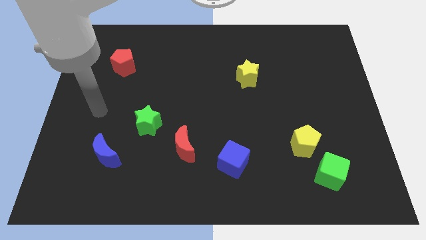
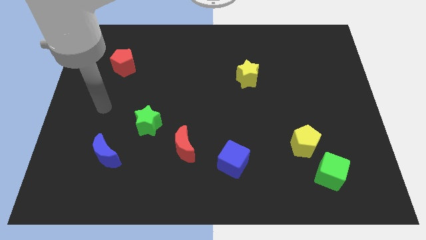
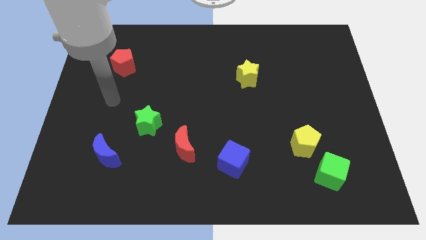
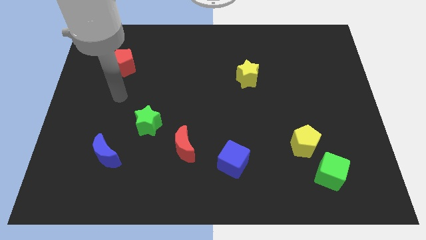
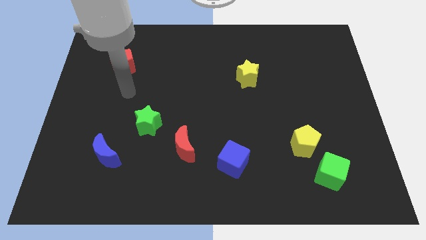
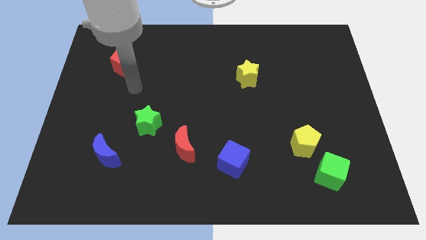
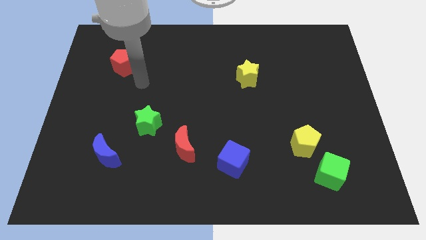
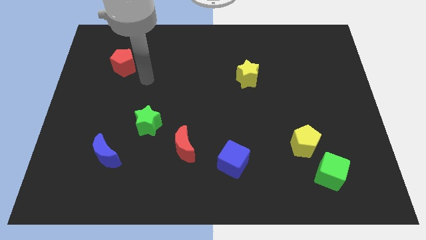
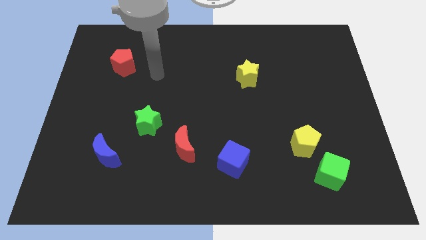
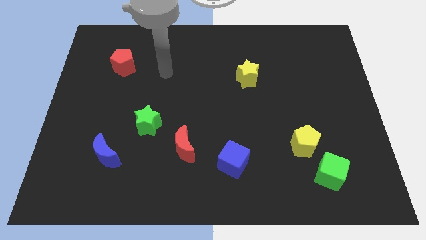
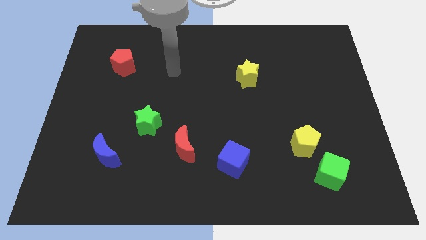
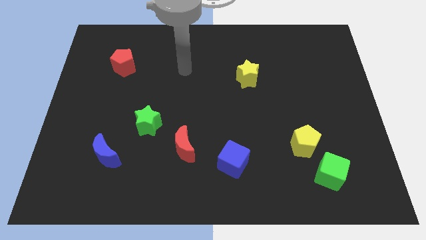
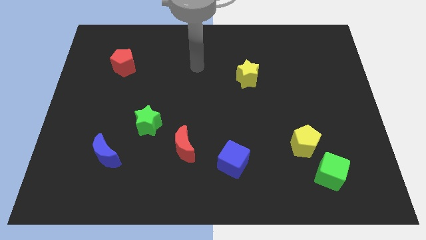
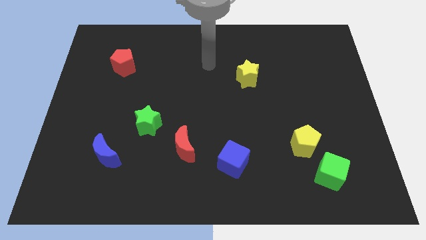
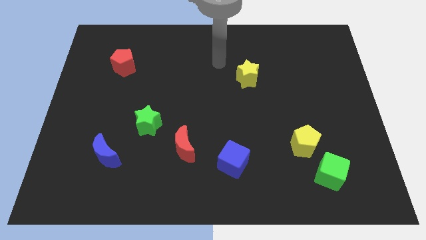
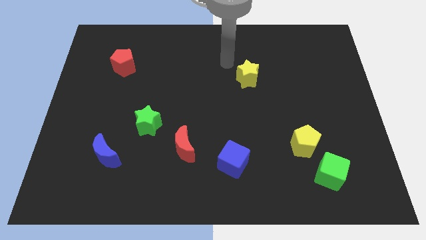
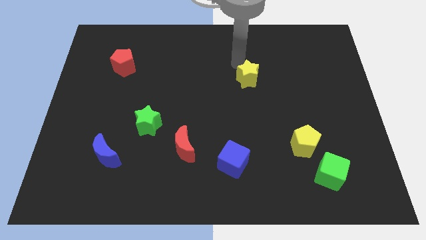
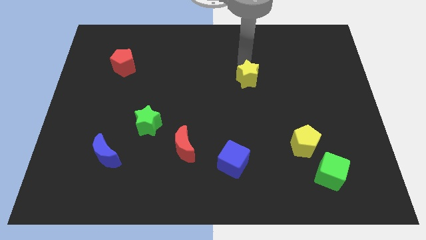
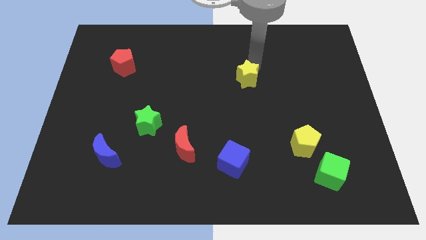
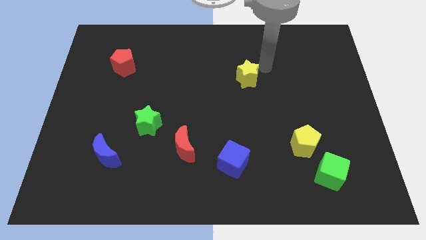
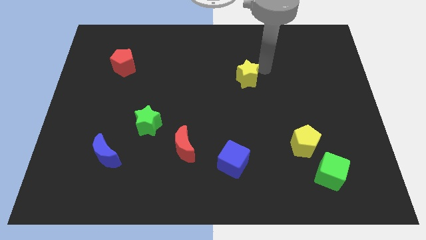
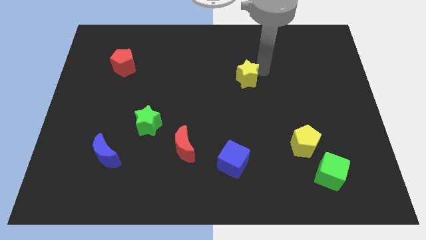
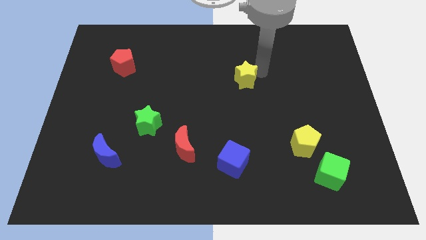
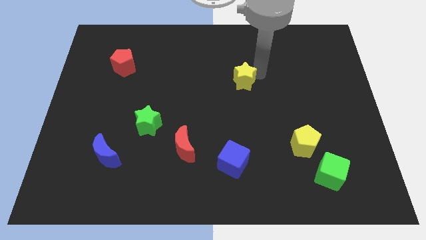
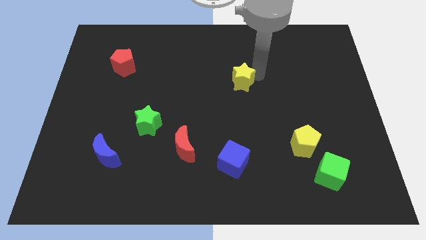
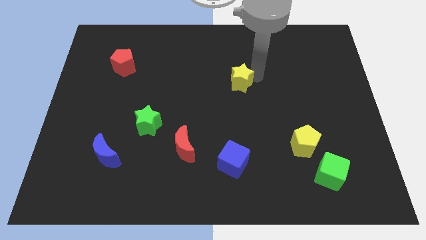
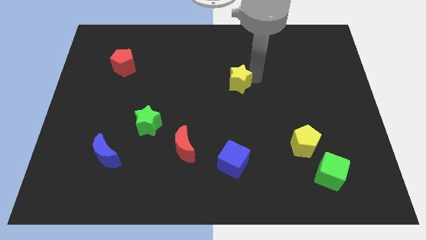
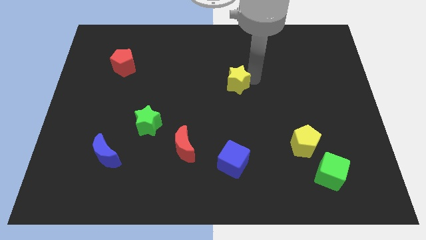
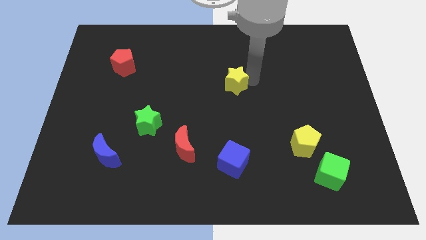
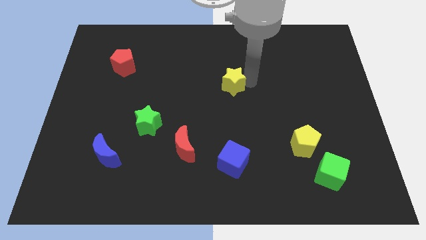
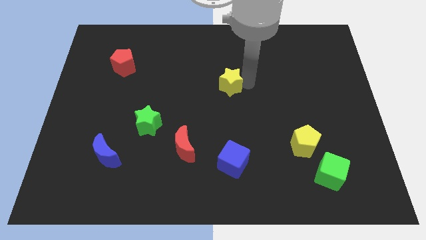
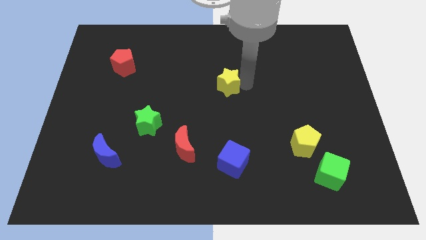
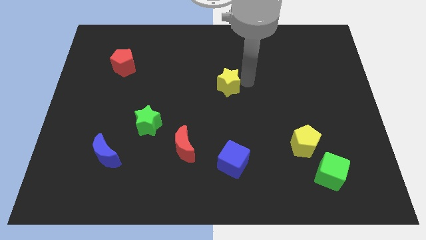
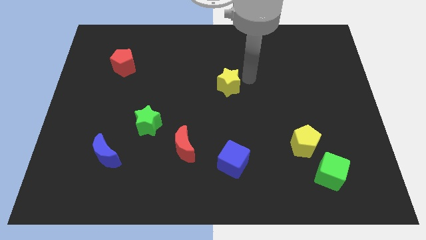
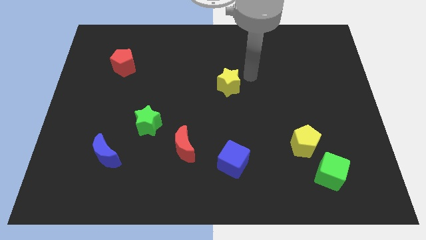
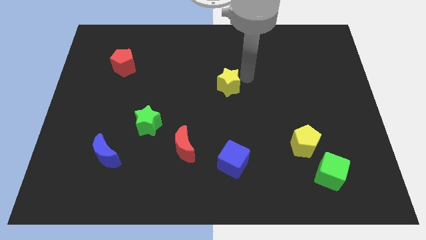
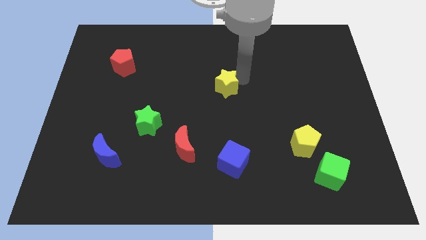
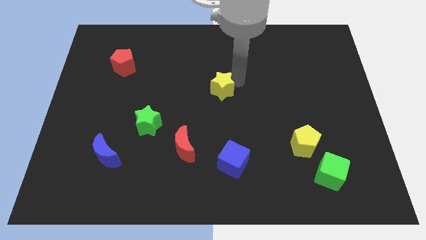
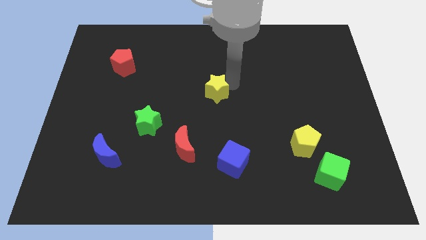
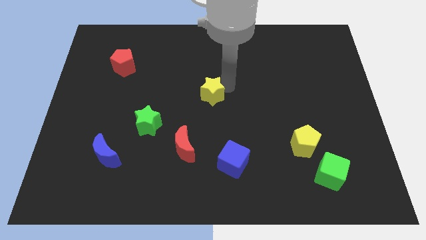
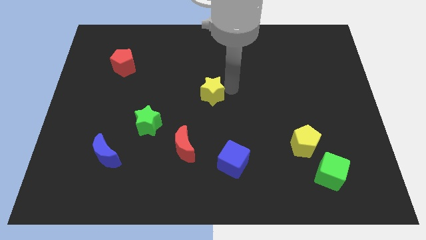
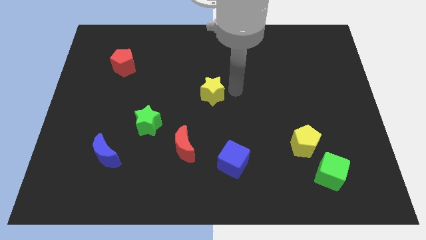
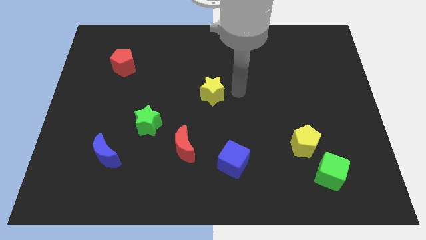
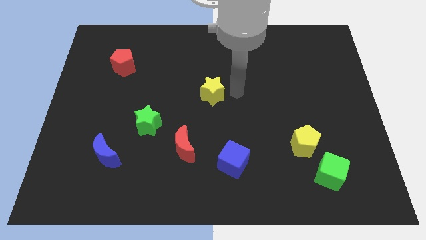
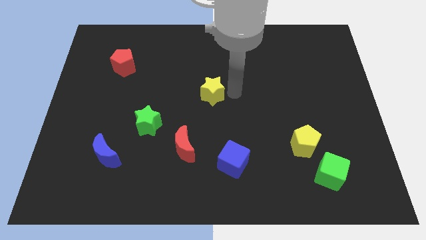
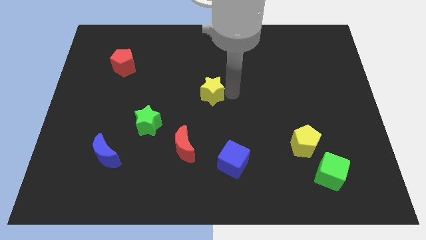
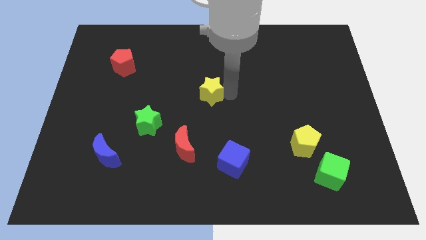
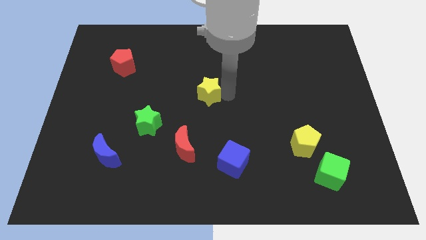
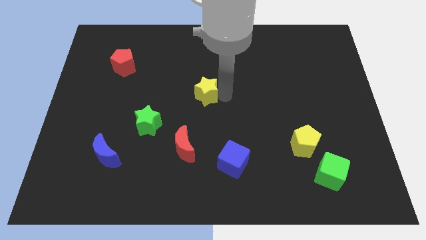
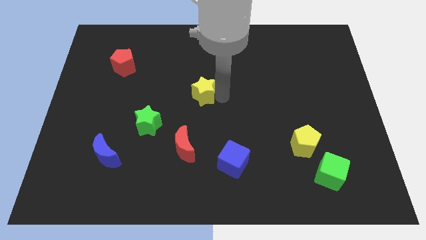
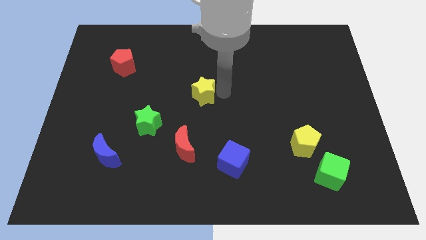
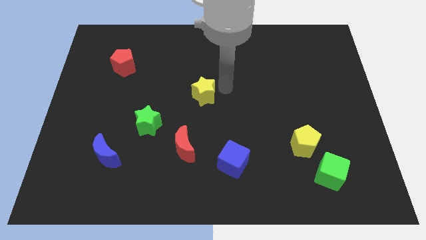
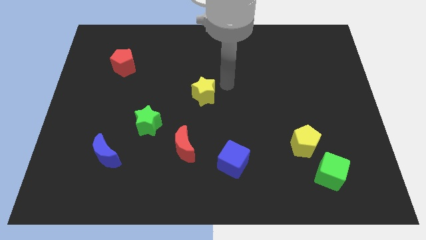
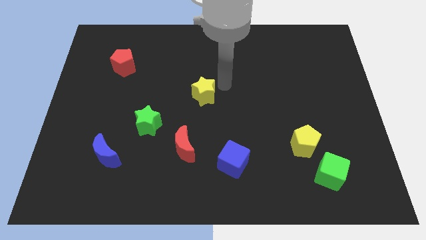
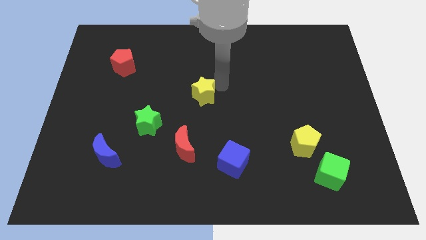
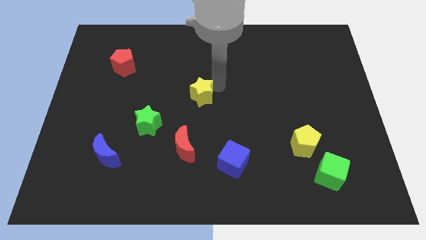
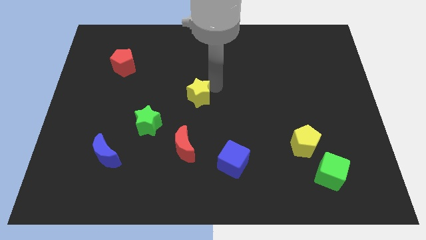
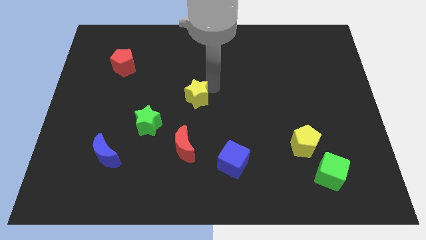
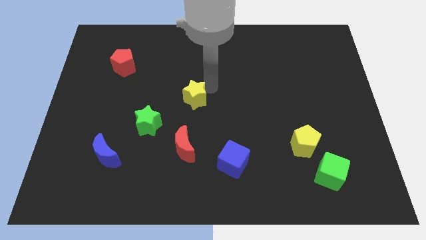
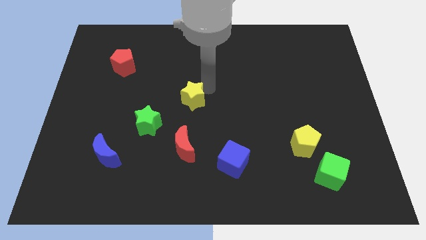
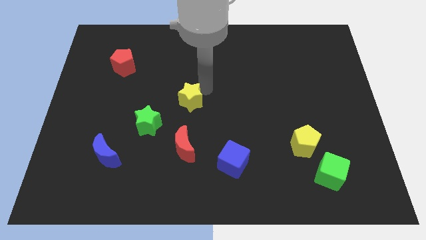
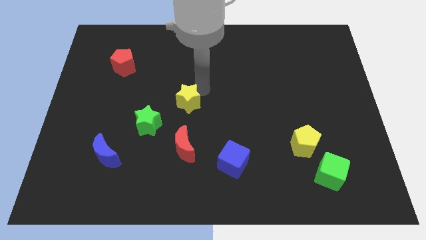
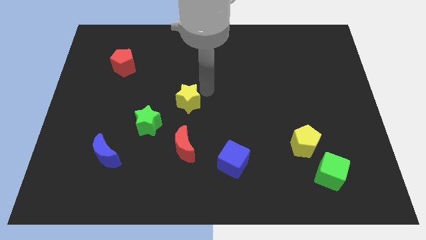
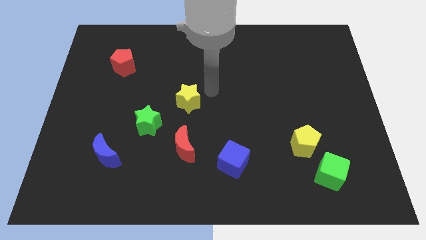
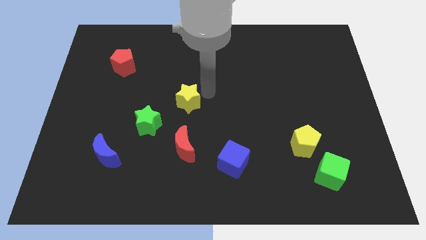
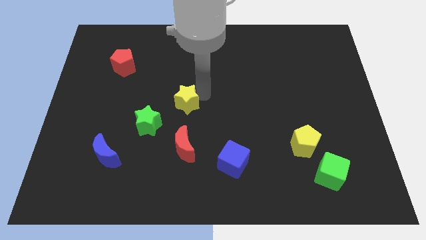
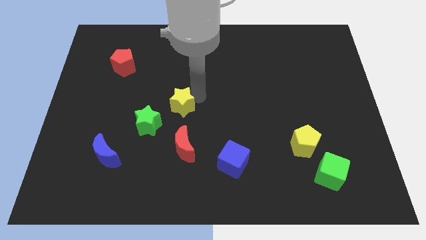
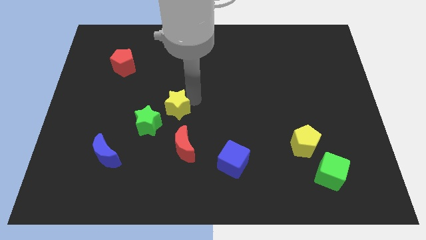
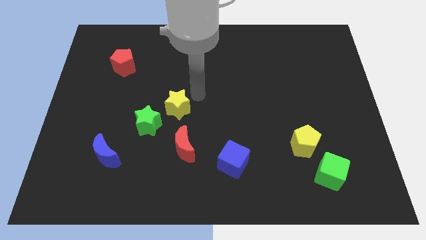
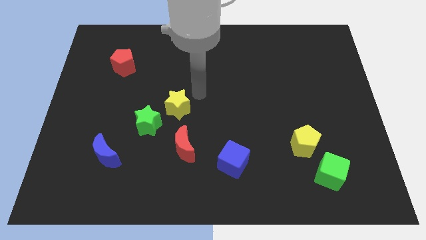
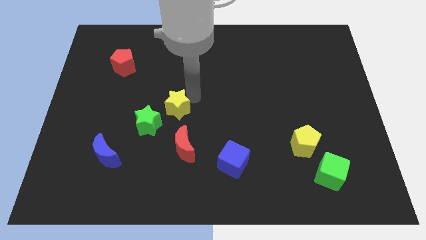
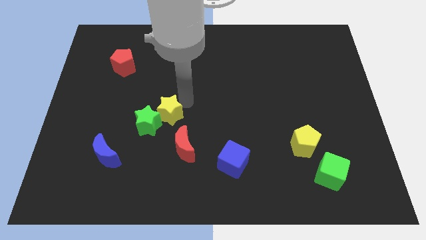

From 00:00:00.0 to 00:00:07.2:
move the yellow star to the green star

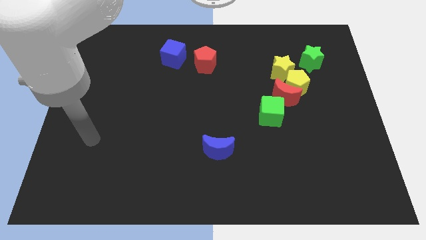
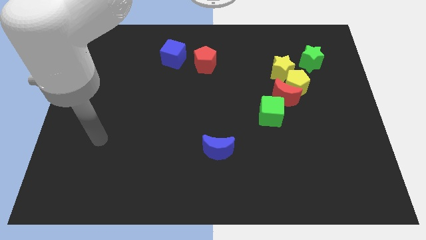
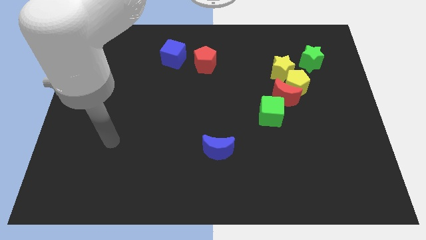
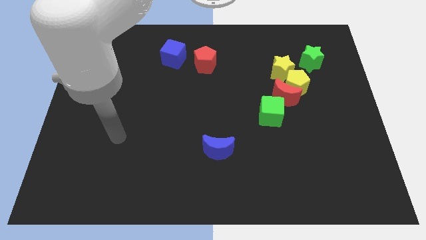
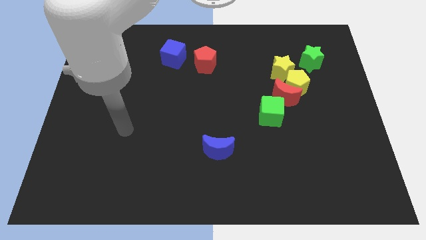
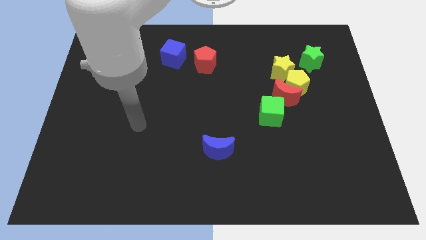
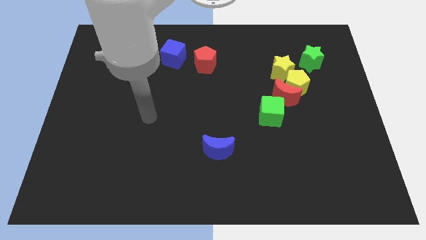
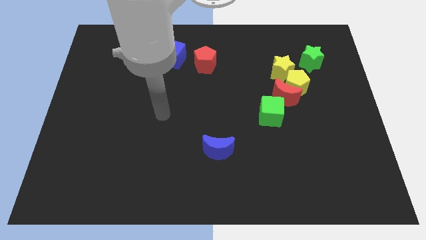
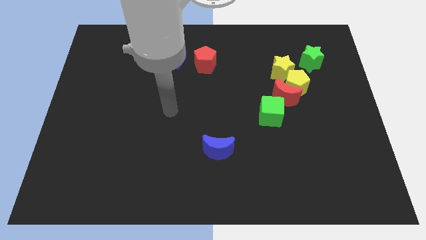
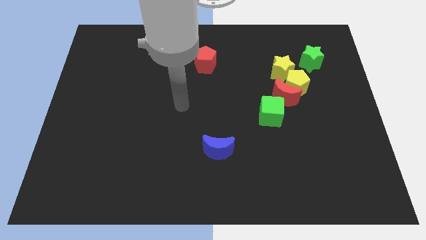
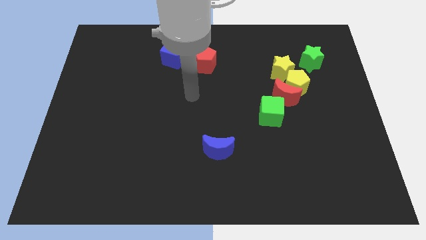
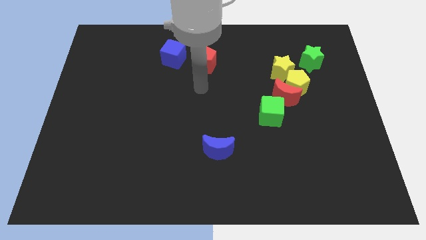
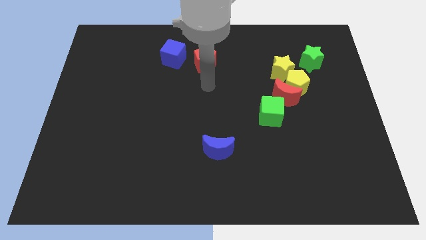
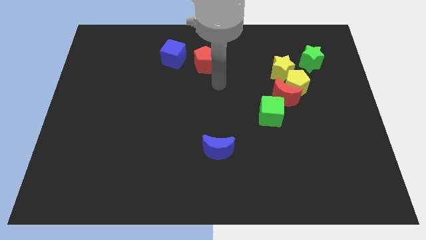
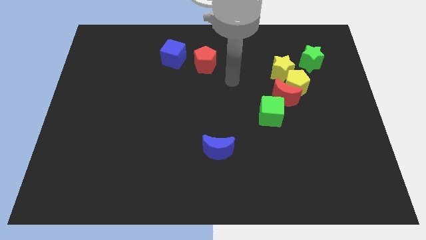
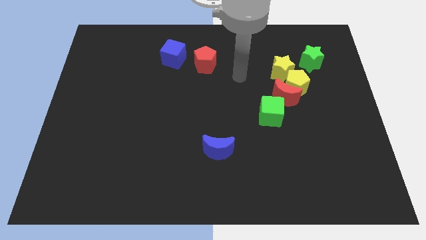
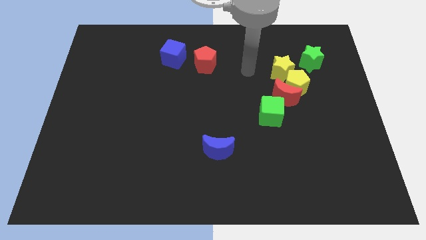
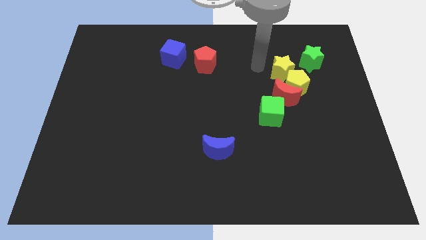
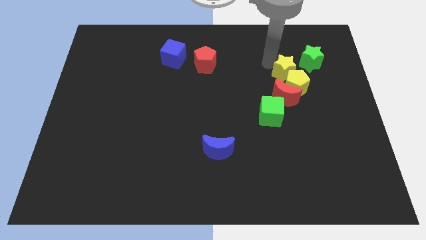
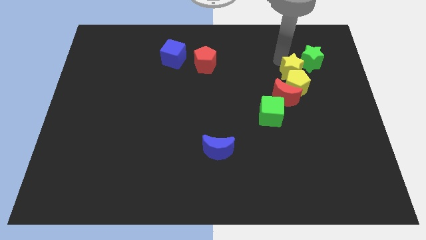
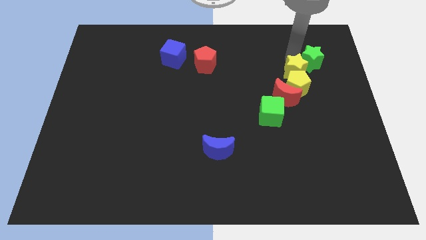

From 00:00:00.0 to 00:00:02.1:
move the green star towards the yellow star
